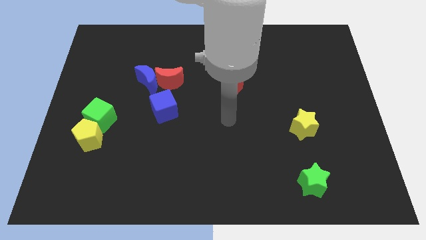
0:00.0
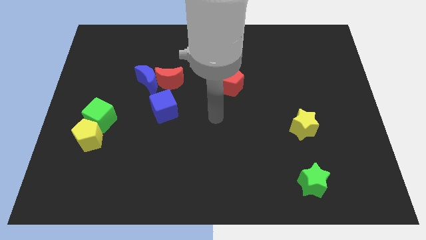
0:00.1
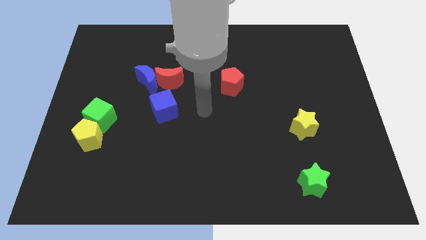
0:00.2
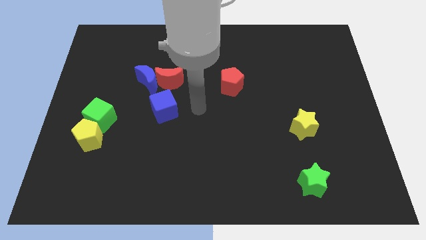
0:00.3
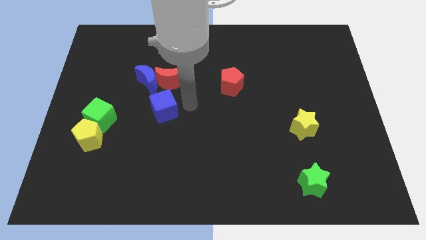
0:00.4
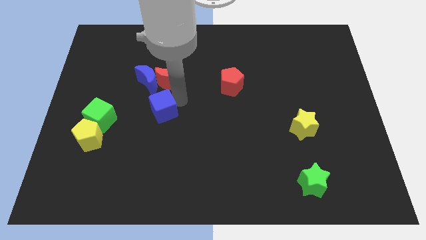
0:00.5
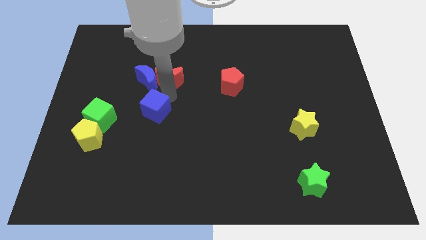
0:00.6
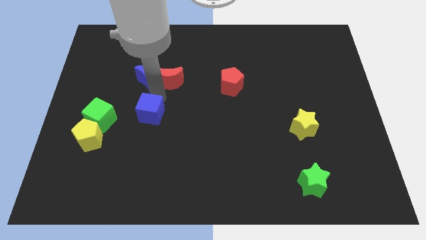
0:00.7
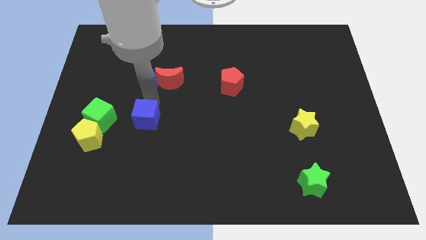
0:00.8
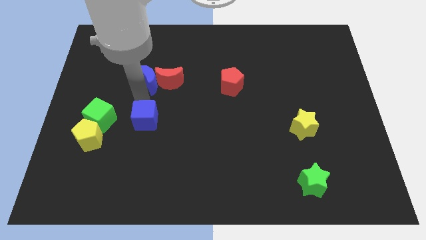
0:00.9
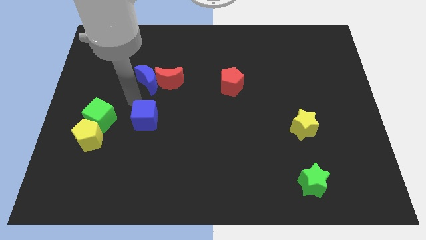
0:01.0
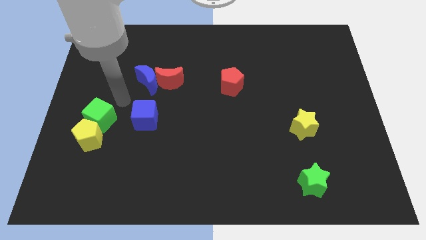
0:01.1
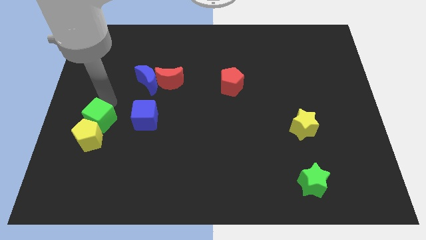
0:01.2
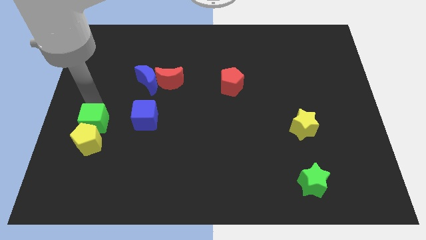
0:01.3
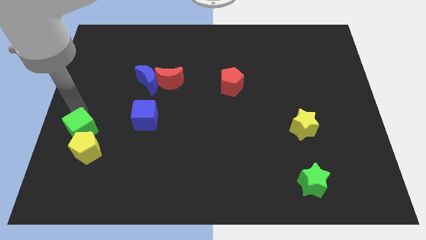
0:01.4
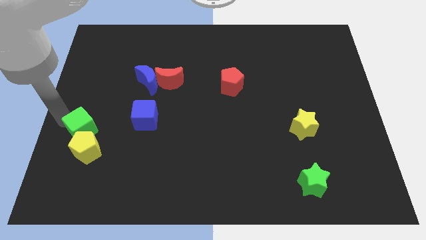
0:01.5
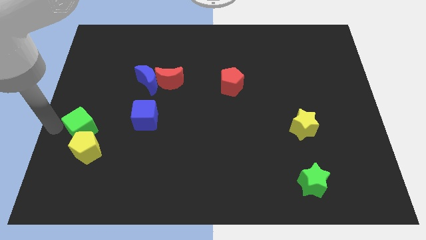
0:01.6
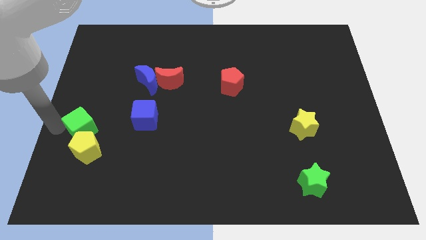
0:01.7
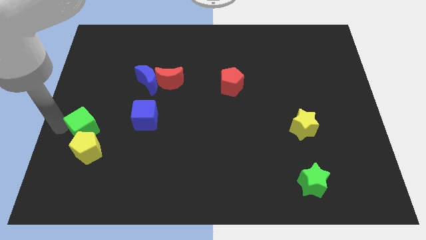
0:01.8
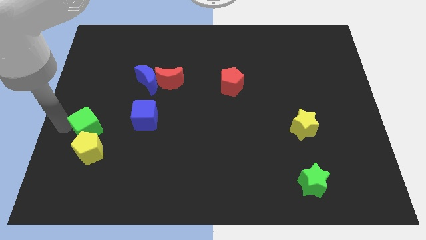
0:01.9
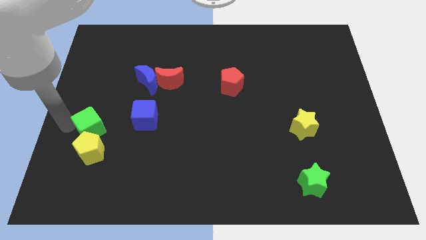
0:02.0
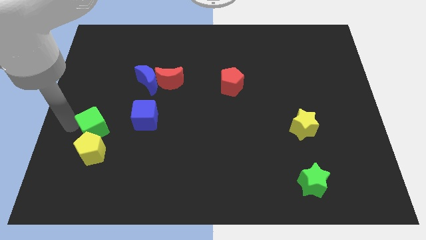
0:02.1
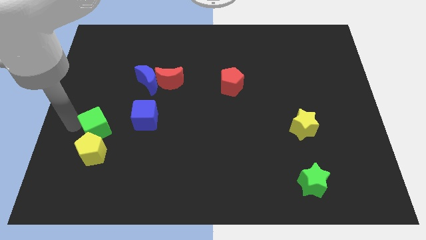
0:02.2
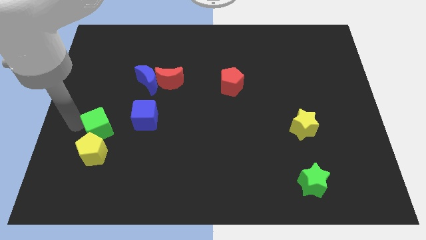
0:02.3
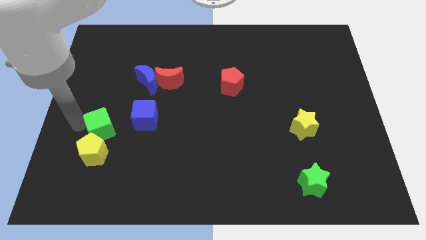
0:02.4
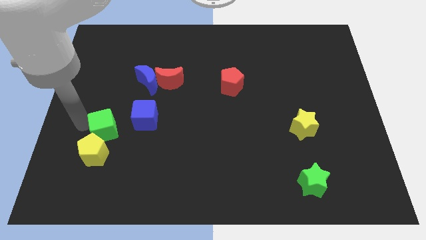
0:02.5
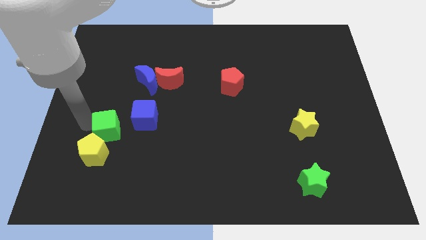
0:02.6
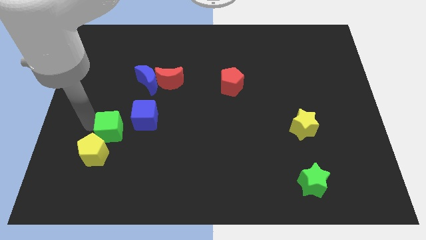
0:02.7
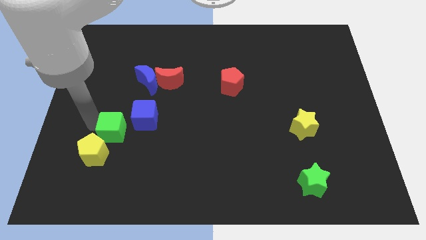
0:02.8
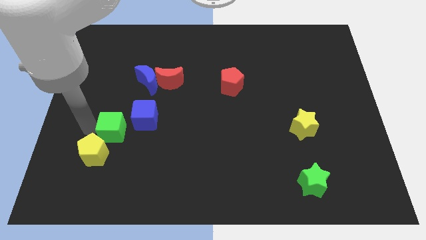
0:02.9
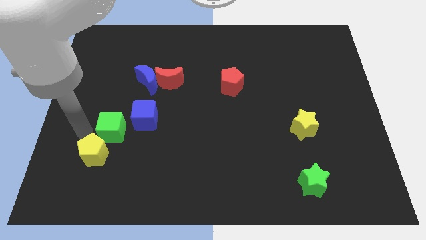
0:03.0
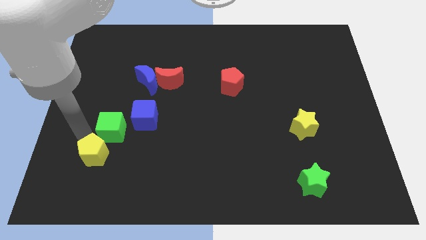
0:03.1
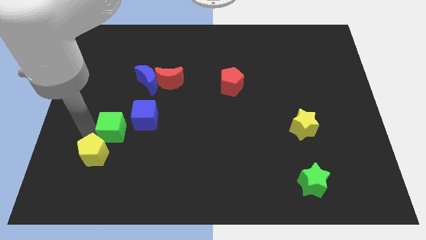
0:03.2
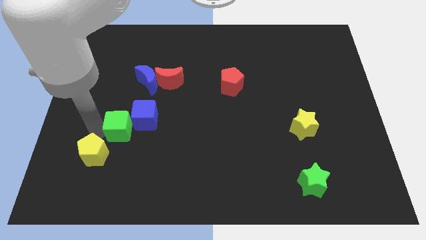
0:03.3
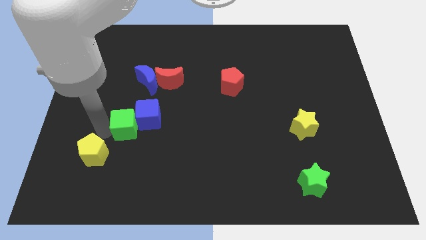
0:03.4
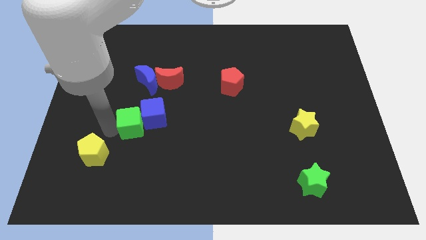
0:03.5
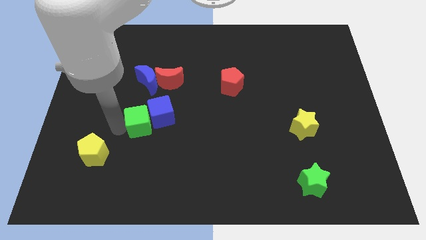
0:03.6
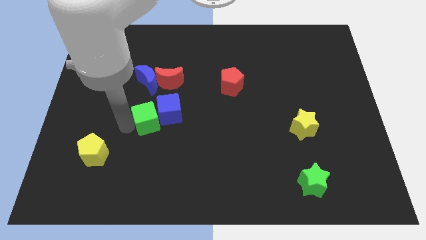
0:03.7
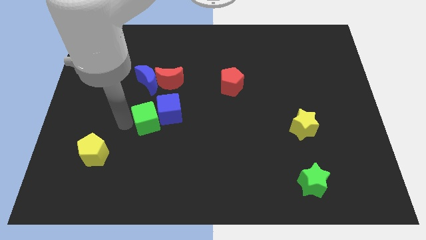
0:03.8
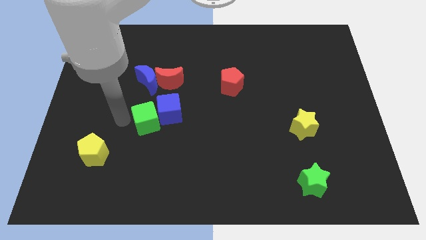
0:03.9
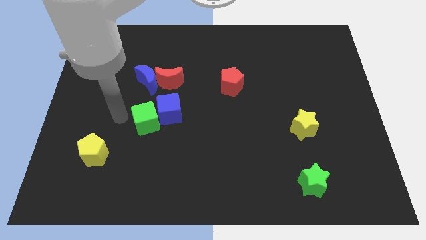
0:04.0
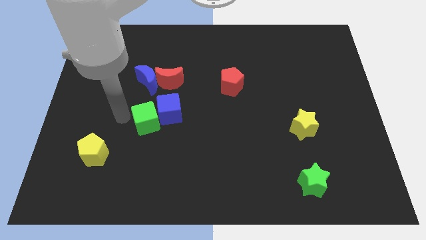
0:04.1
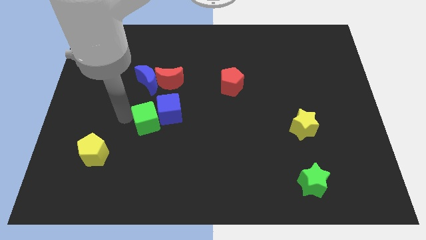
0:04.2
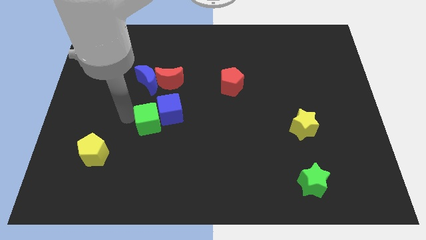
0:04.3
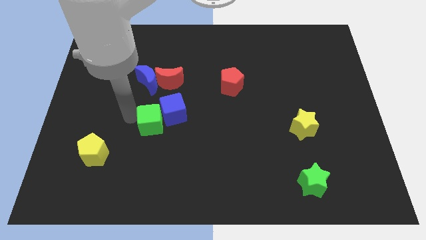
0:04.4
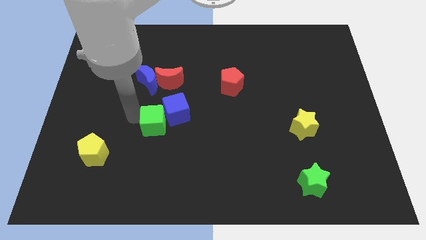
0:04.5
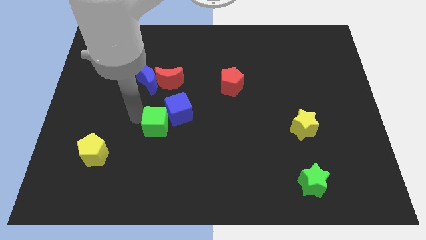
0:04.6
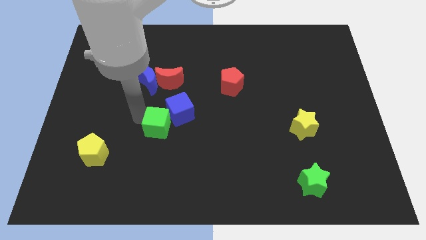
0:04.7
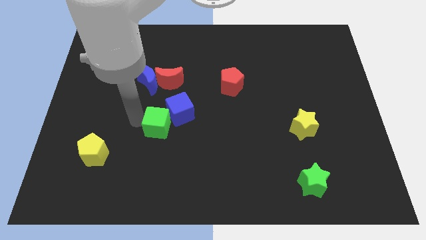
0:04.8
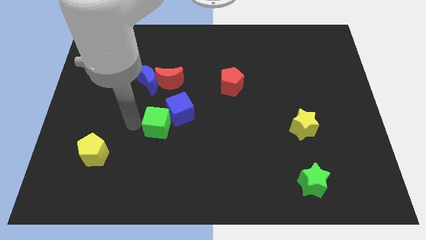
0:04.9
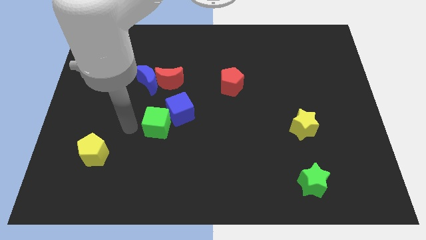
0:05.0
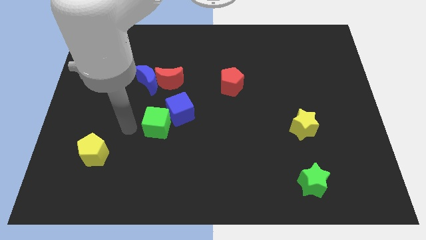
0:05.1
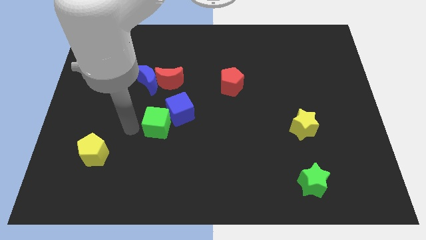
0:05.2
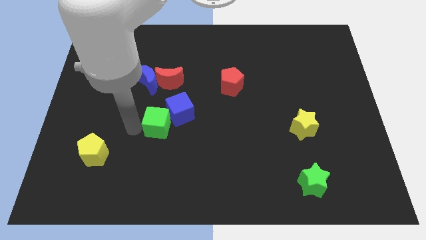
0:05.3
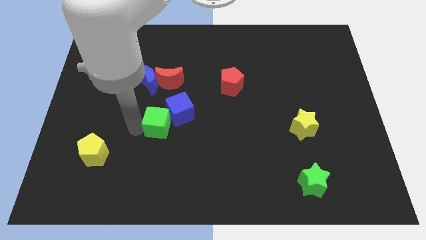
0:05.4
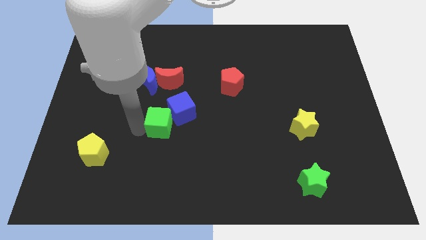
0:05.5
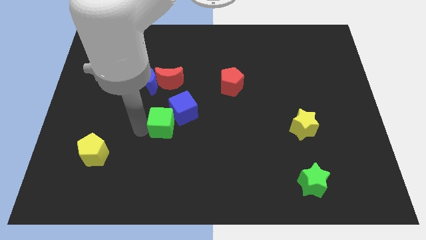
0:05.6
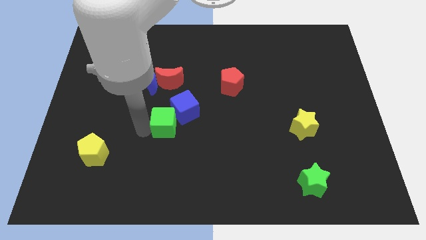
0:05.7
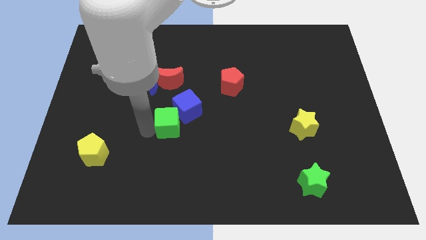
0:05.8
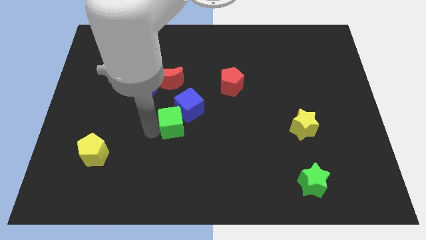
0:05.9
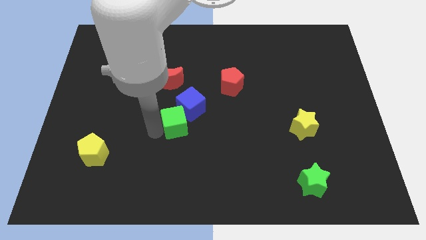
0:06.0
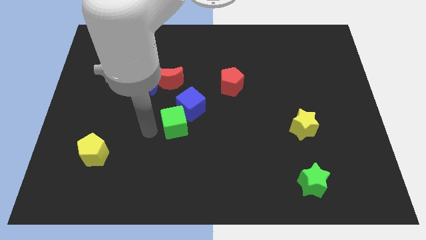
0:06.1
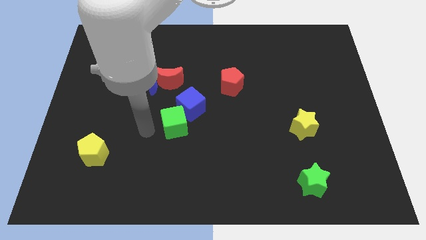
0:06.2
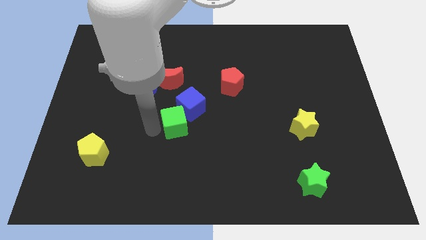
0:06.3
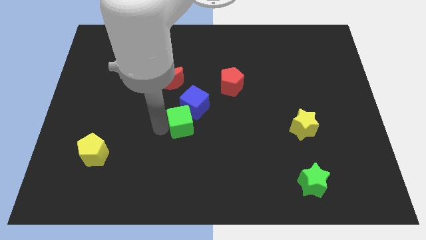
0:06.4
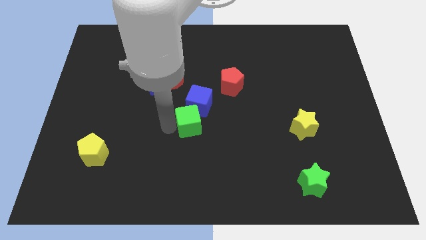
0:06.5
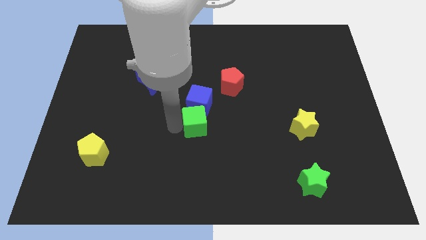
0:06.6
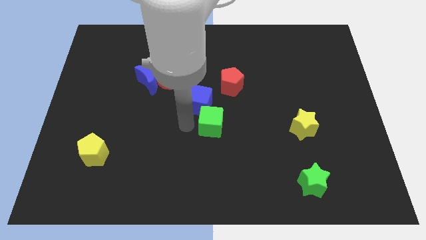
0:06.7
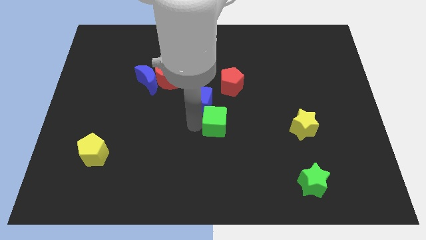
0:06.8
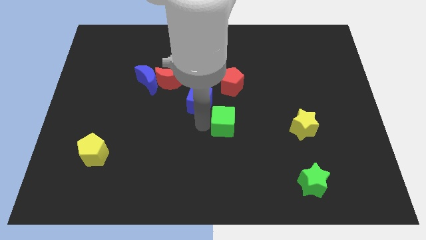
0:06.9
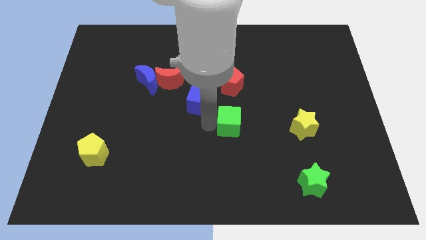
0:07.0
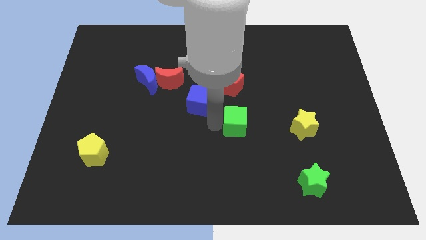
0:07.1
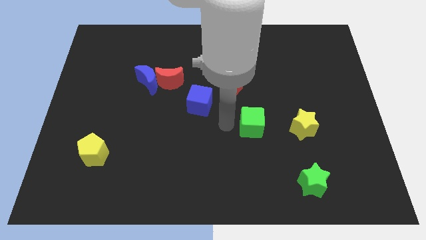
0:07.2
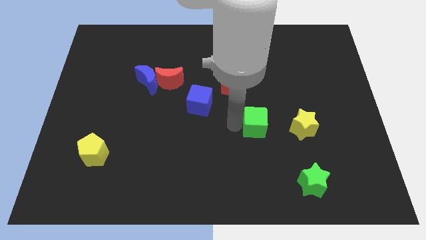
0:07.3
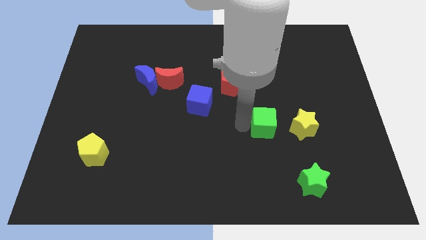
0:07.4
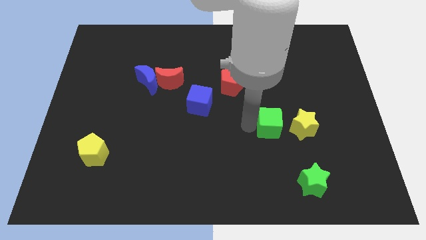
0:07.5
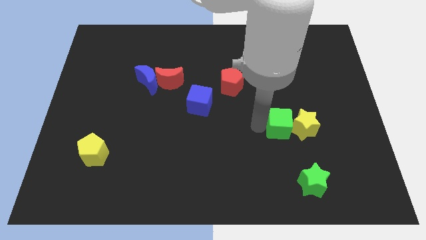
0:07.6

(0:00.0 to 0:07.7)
move the green cube towards the yellow star
